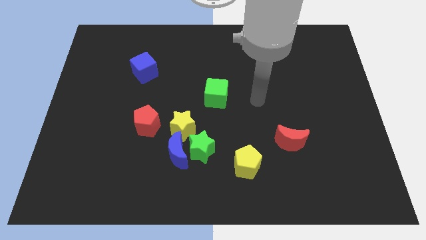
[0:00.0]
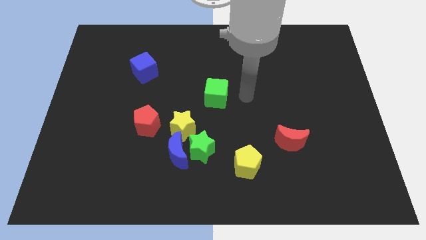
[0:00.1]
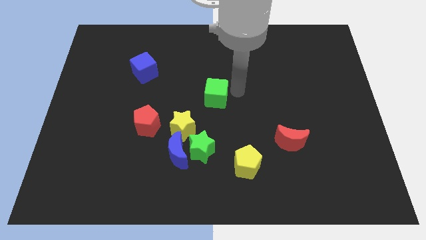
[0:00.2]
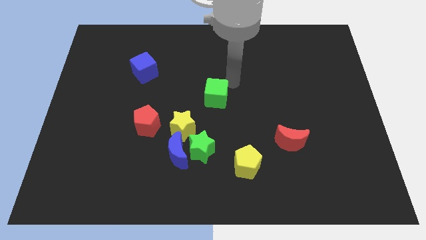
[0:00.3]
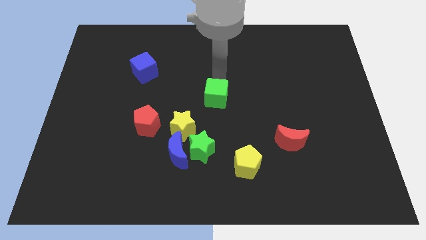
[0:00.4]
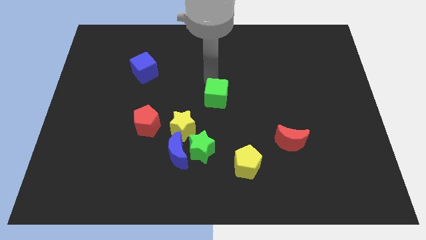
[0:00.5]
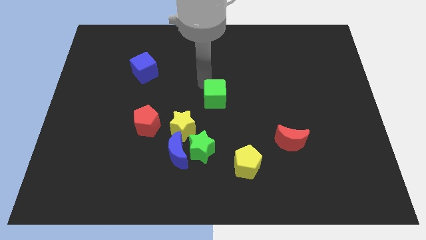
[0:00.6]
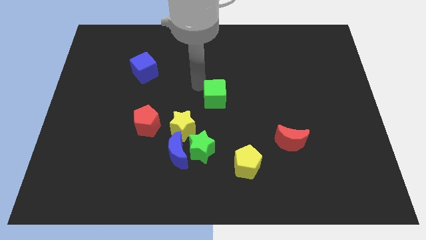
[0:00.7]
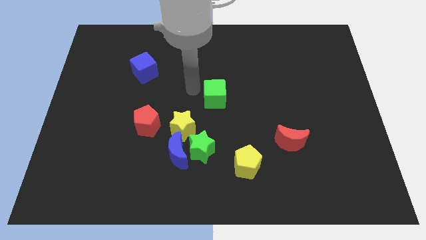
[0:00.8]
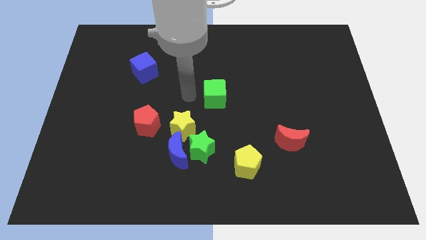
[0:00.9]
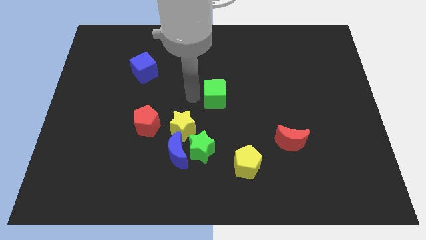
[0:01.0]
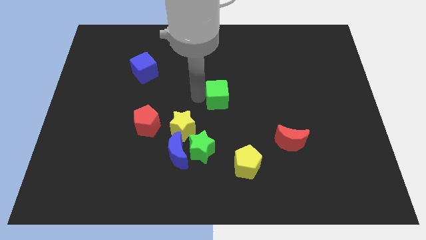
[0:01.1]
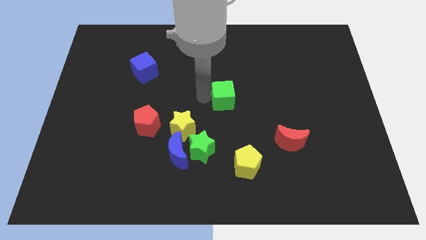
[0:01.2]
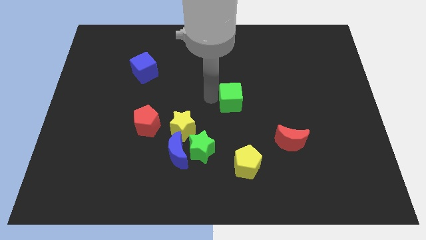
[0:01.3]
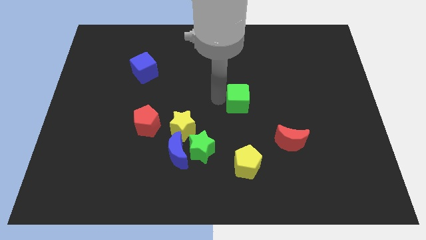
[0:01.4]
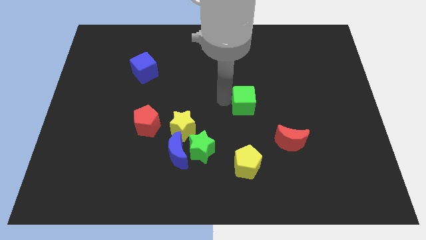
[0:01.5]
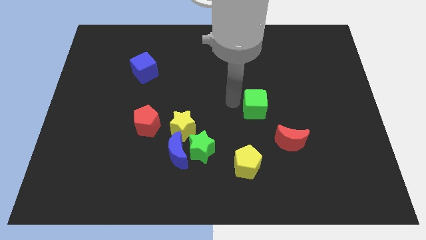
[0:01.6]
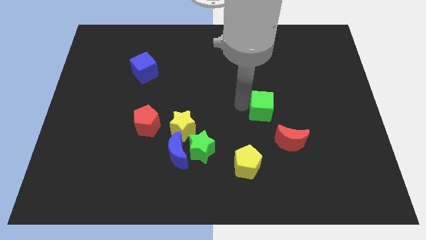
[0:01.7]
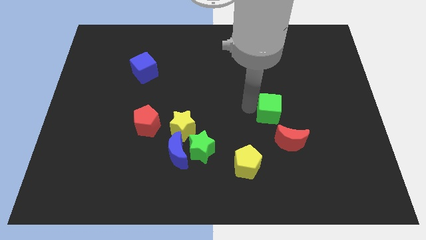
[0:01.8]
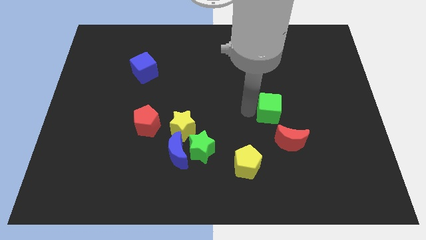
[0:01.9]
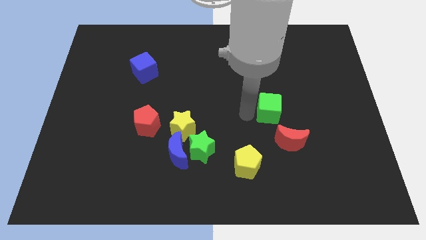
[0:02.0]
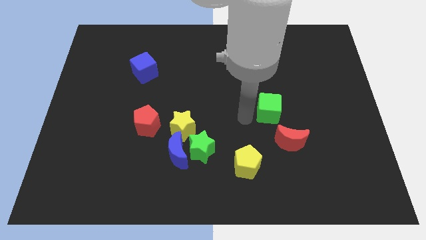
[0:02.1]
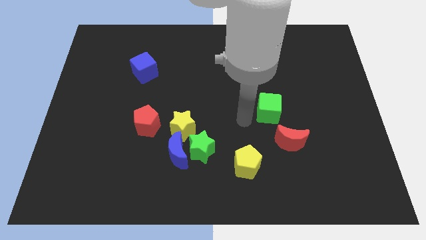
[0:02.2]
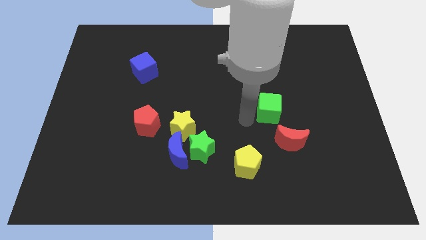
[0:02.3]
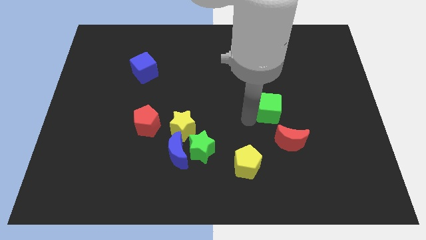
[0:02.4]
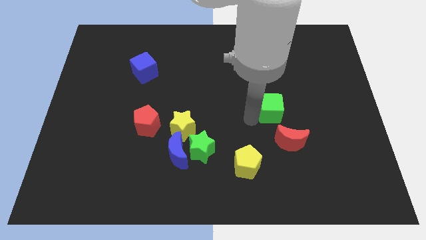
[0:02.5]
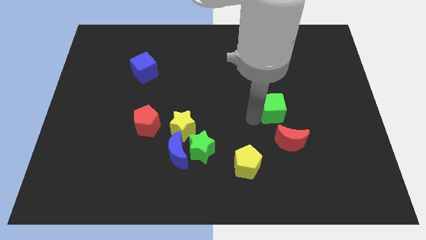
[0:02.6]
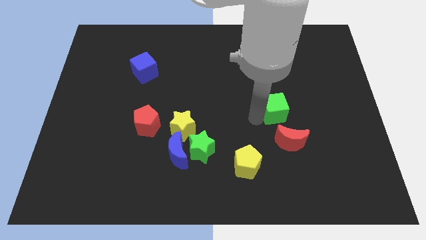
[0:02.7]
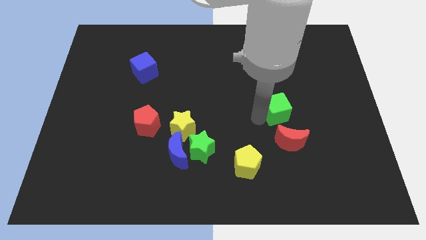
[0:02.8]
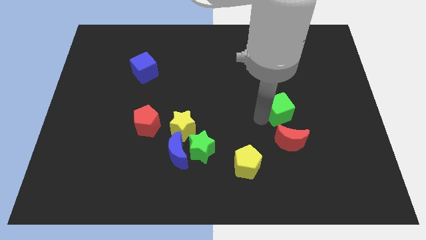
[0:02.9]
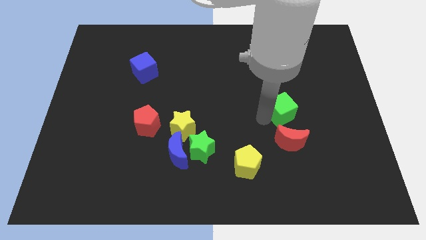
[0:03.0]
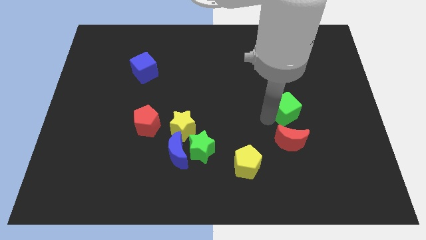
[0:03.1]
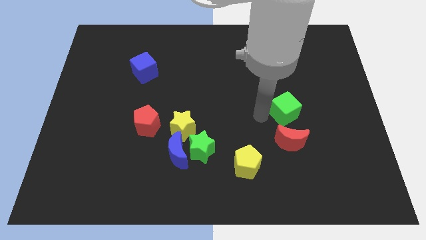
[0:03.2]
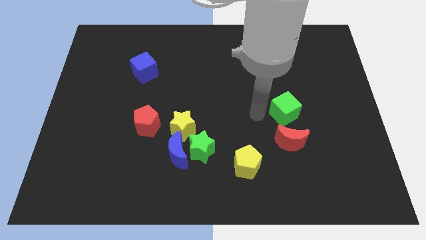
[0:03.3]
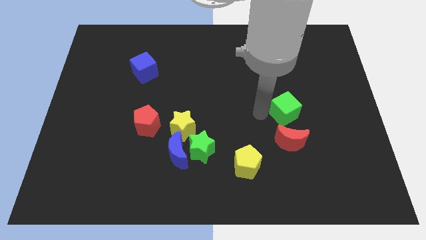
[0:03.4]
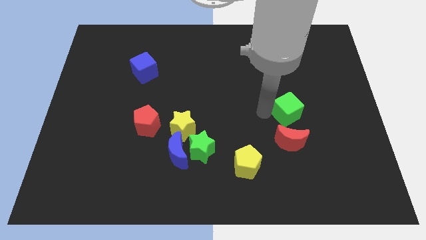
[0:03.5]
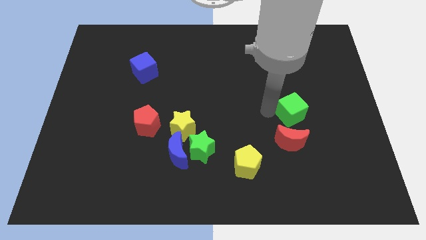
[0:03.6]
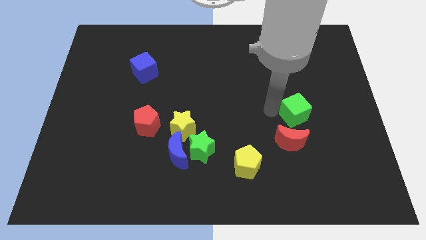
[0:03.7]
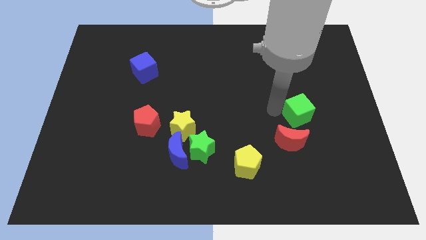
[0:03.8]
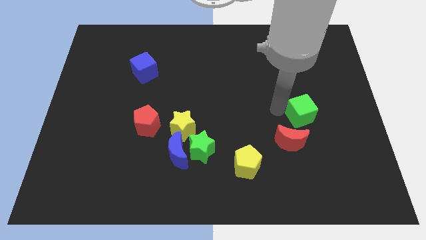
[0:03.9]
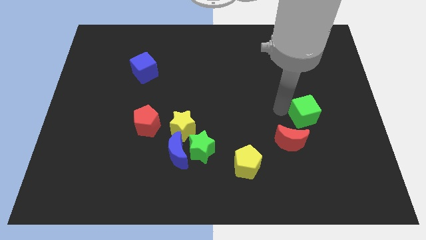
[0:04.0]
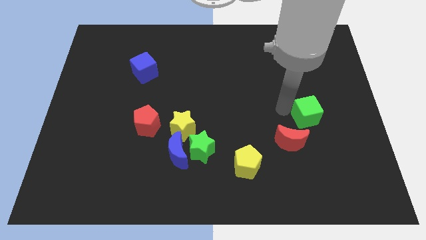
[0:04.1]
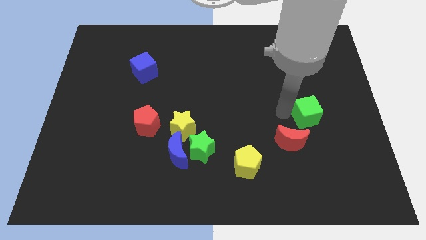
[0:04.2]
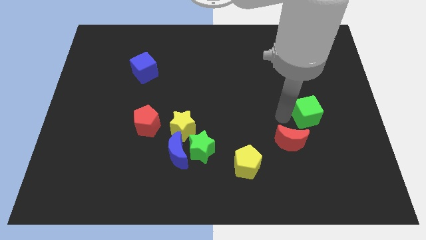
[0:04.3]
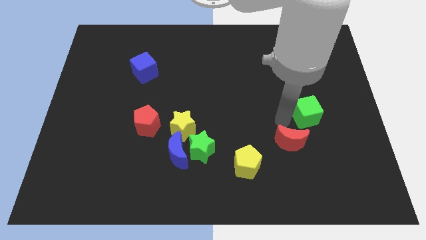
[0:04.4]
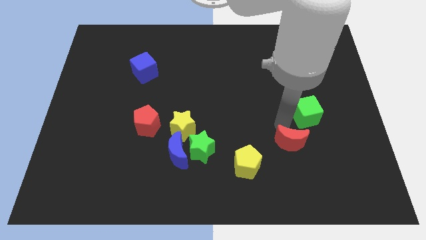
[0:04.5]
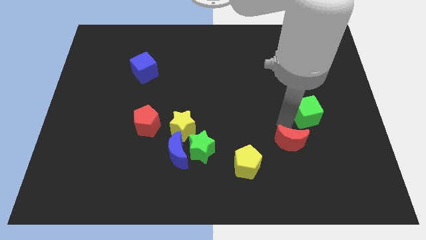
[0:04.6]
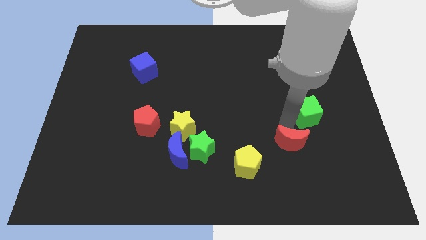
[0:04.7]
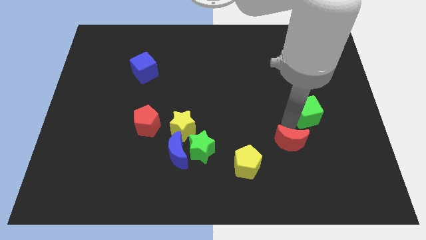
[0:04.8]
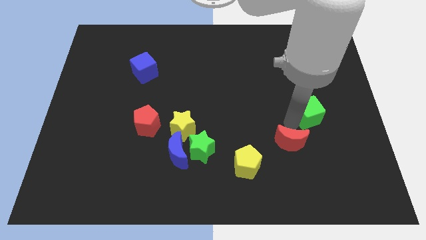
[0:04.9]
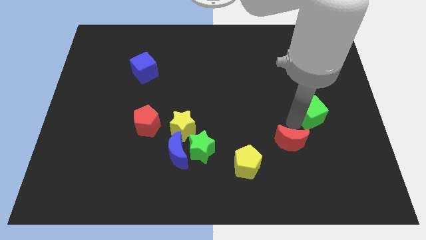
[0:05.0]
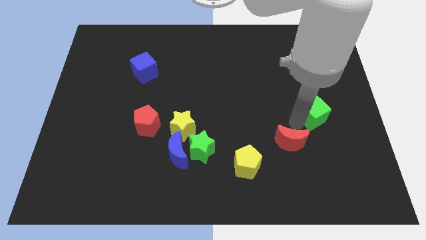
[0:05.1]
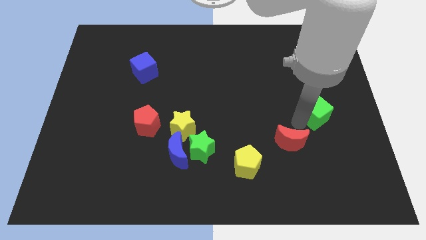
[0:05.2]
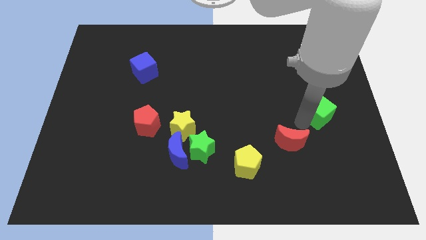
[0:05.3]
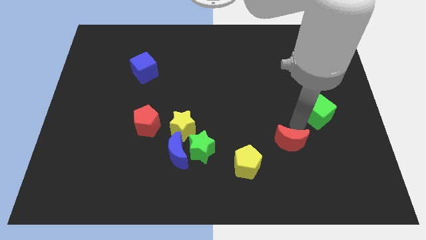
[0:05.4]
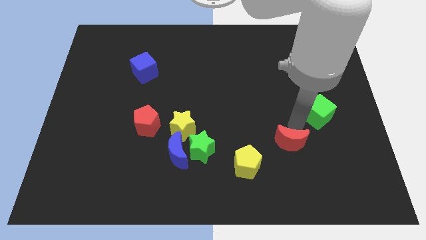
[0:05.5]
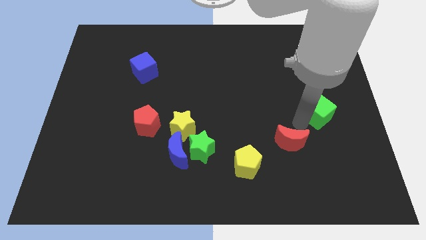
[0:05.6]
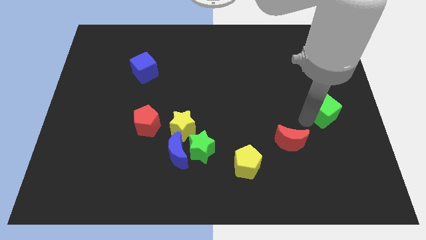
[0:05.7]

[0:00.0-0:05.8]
put the green cube to the center right
